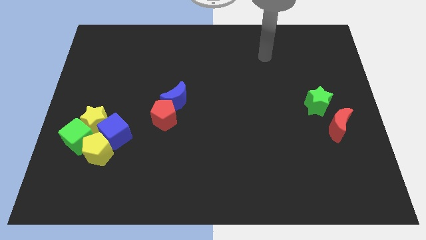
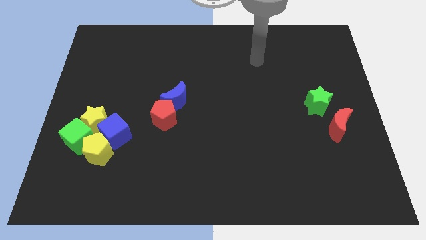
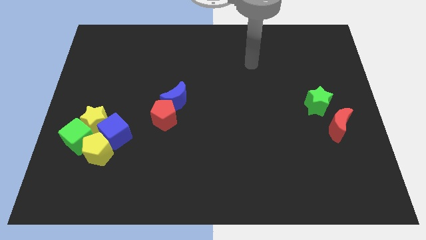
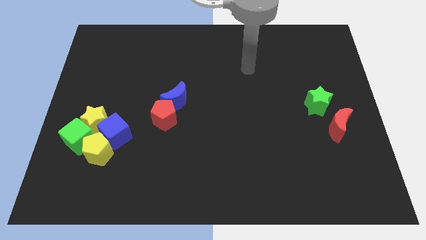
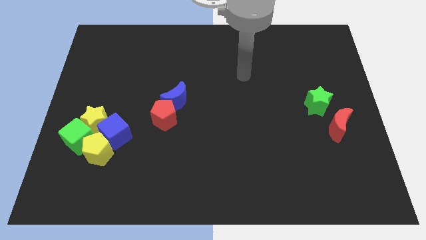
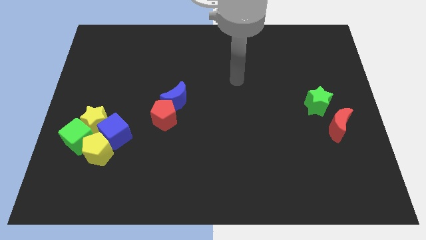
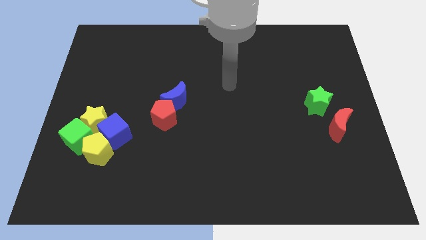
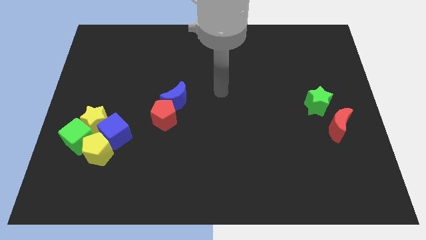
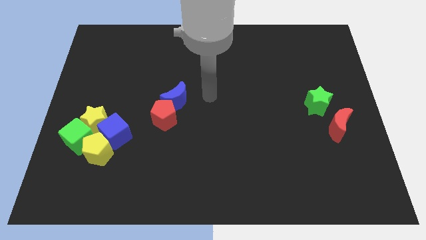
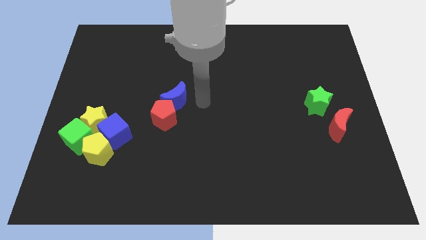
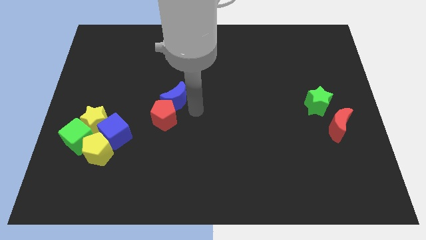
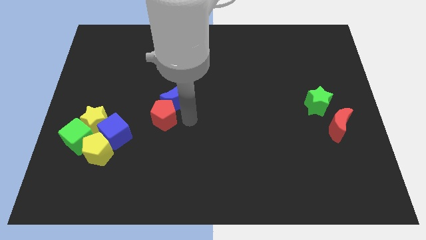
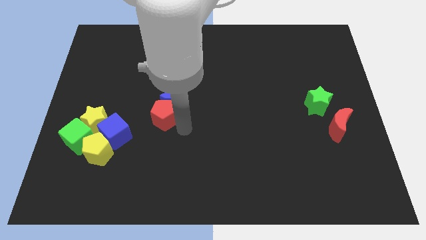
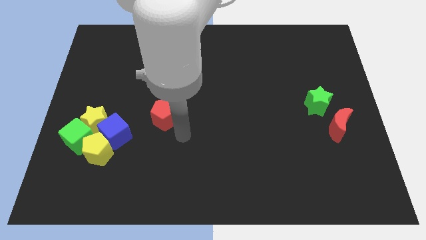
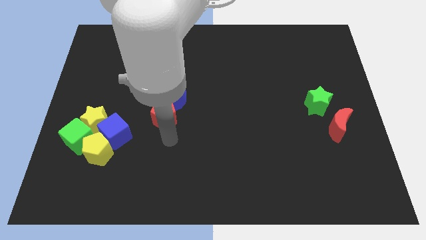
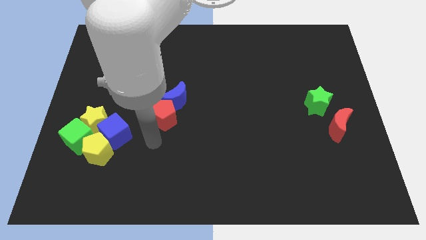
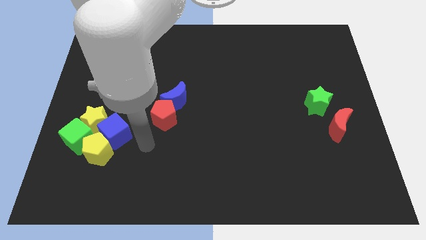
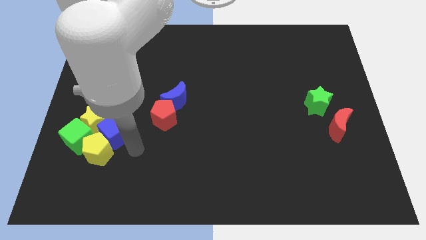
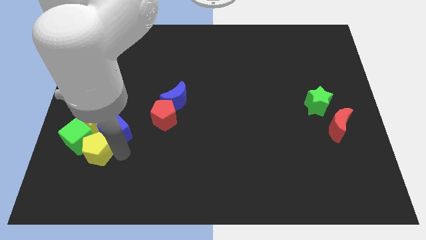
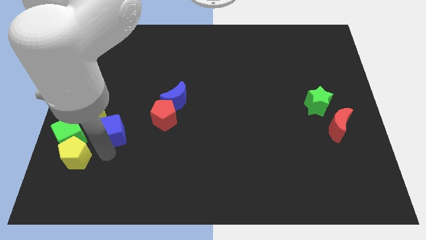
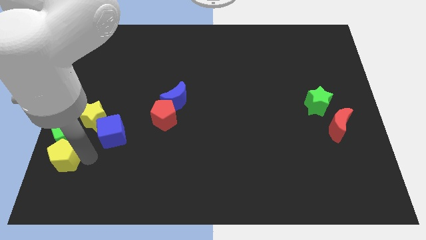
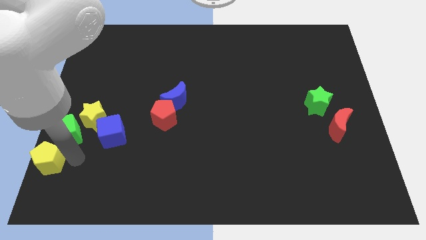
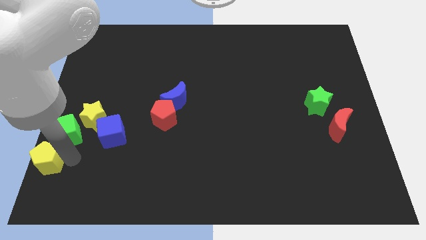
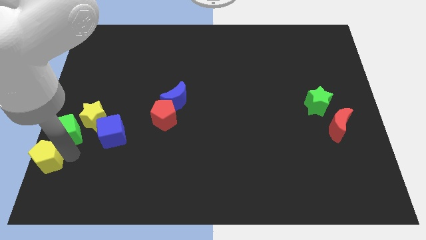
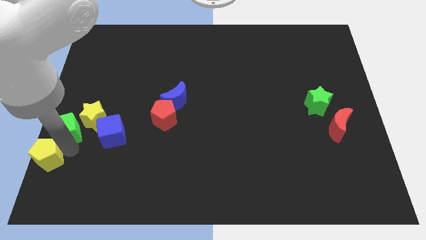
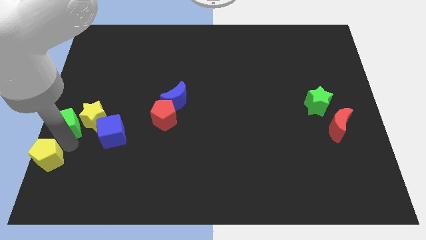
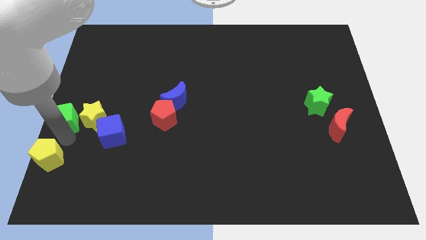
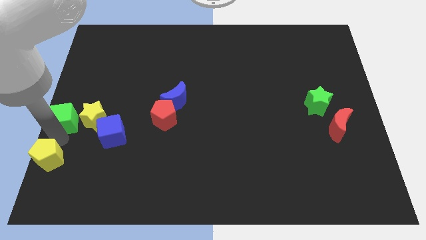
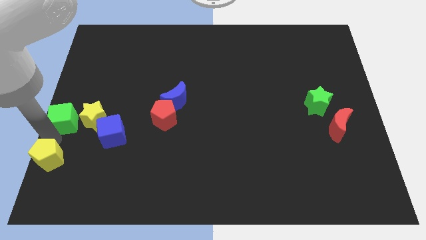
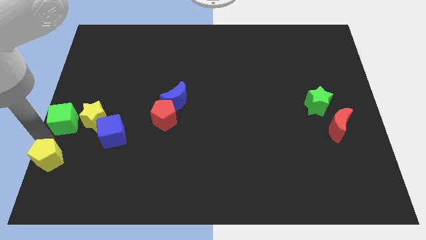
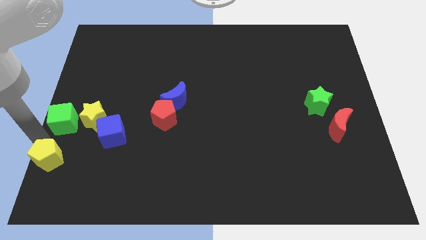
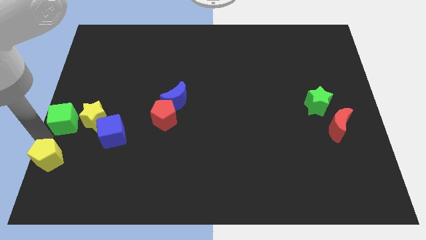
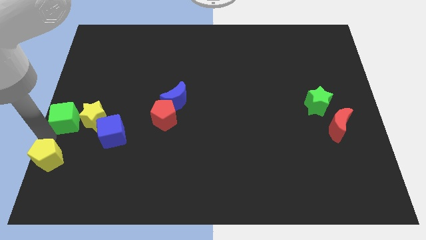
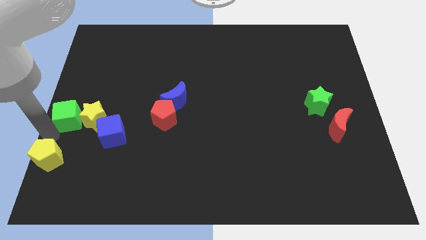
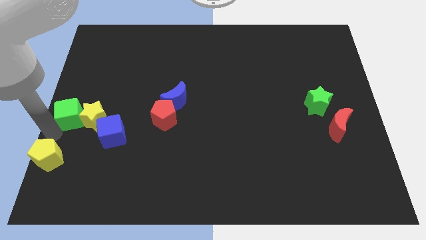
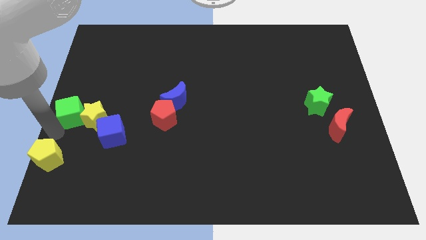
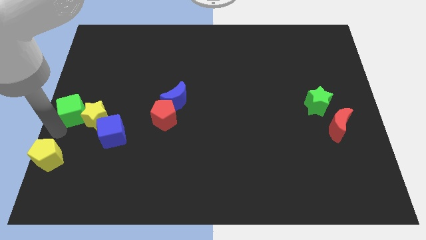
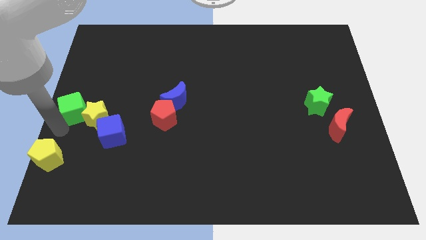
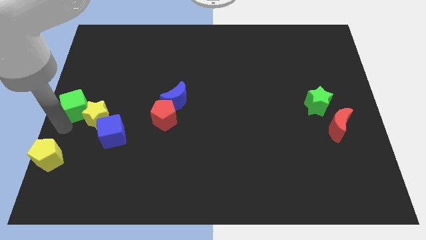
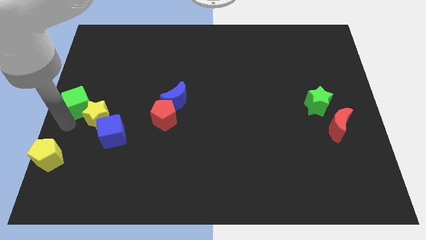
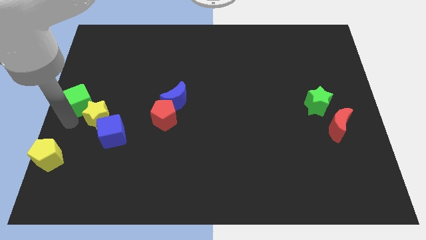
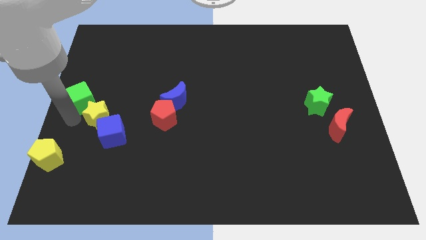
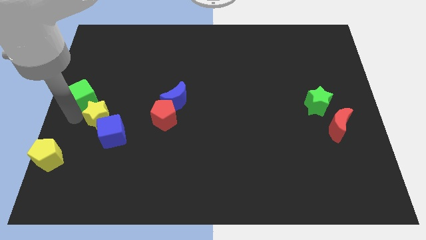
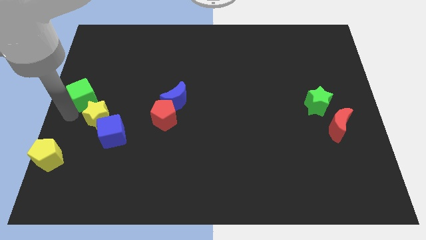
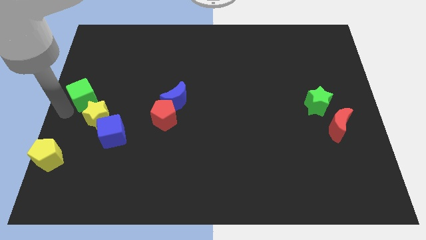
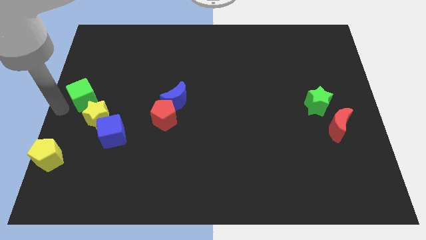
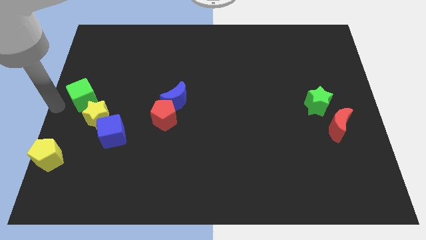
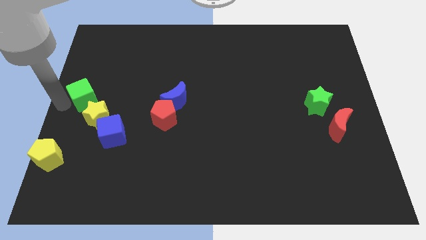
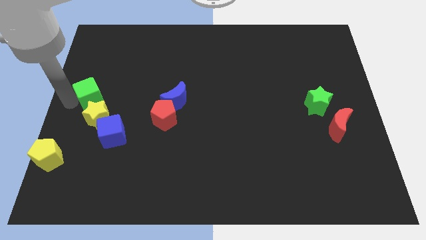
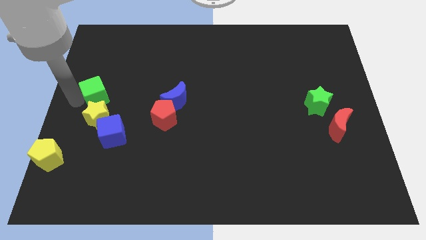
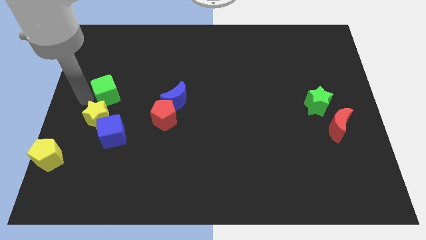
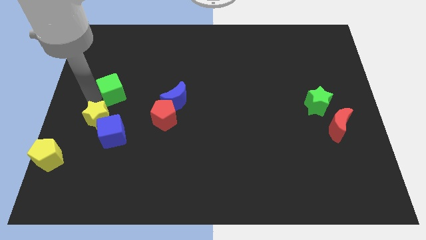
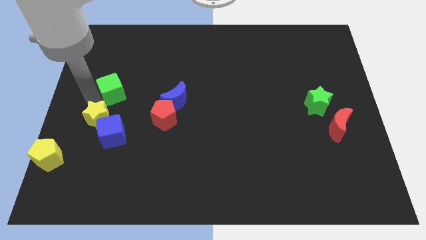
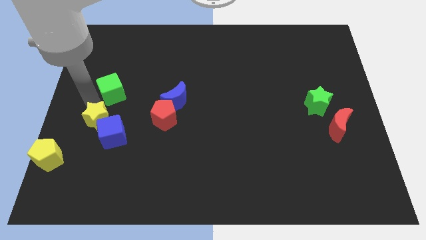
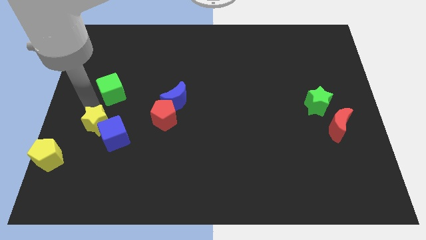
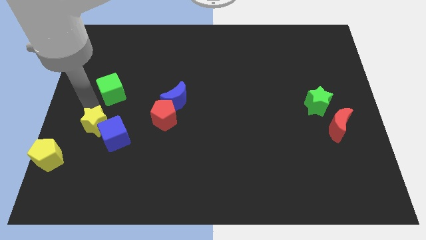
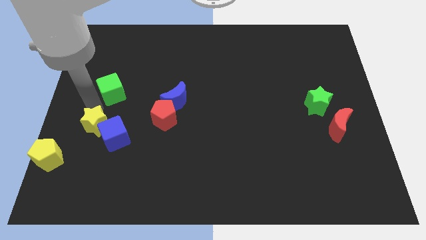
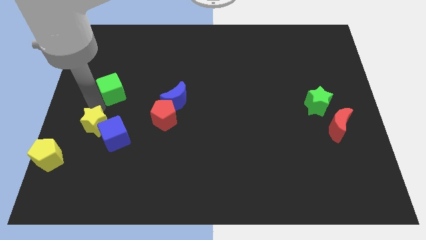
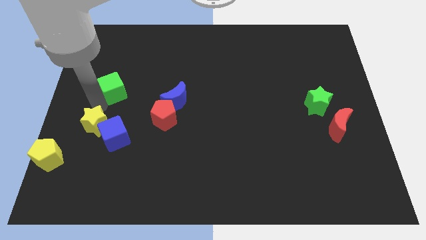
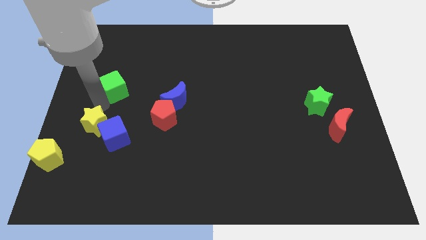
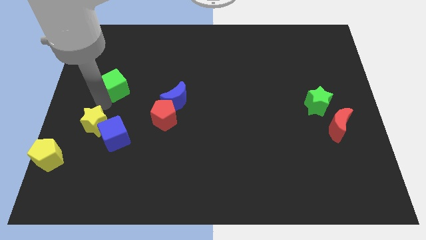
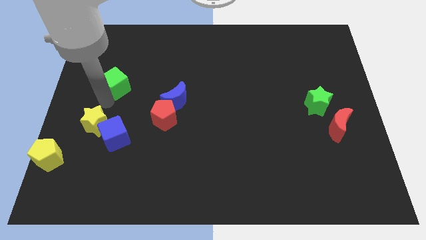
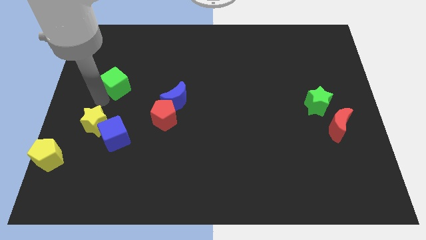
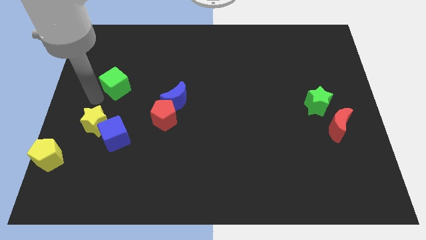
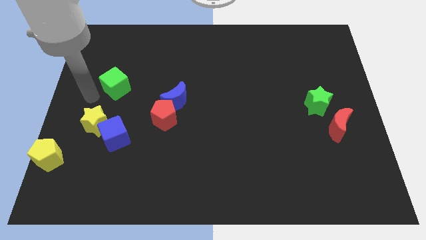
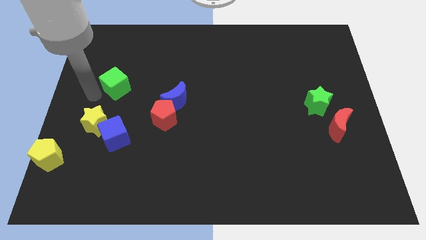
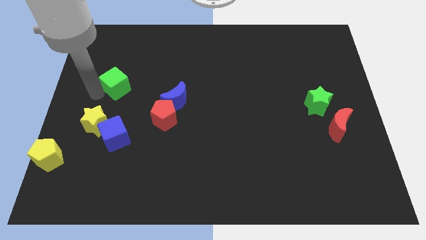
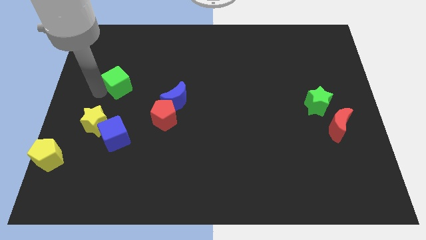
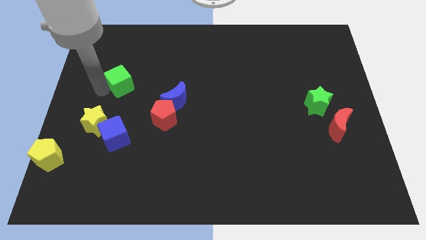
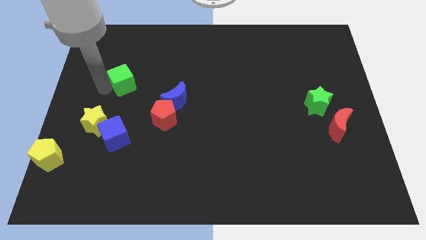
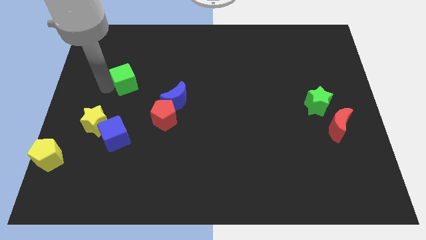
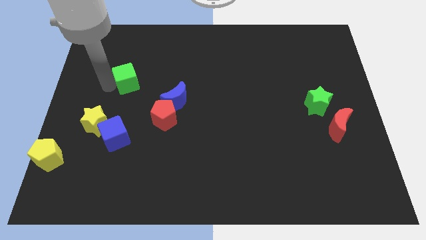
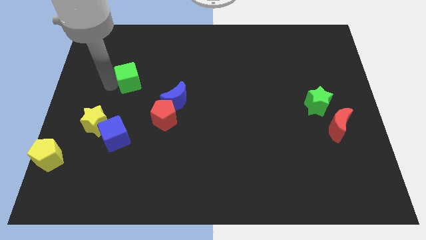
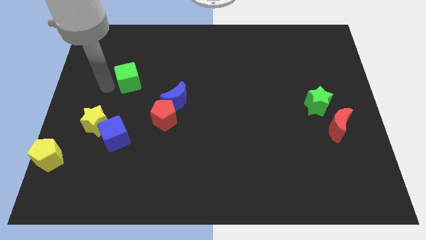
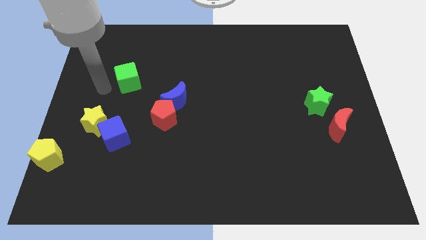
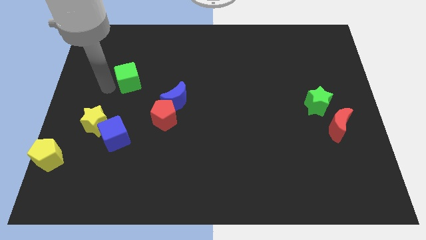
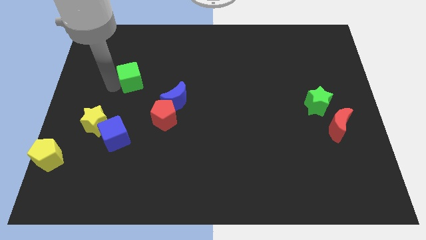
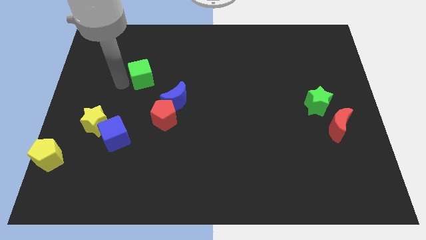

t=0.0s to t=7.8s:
move the green cube upwards and right

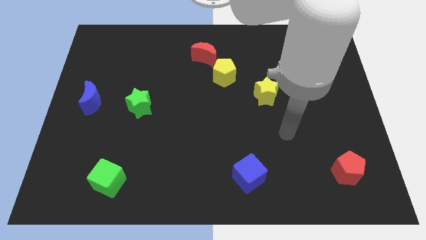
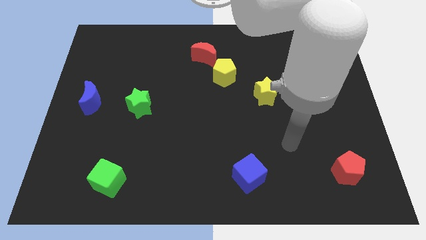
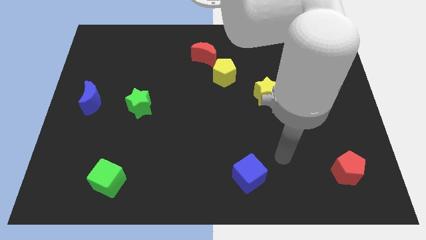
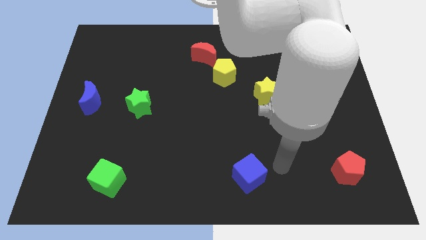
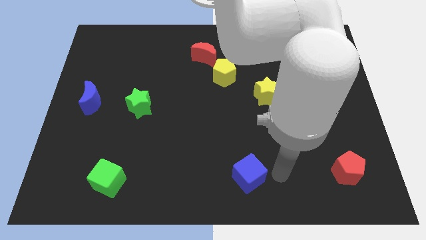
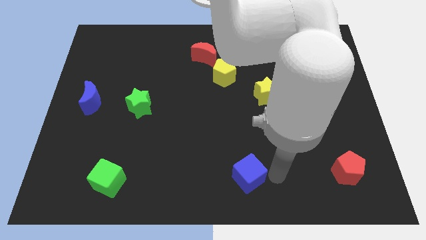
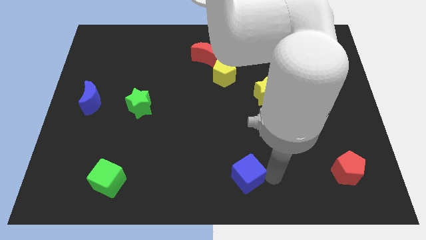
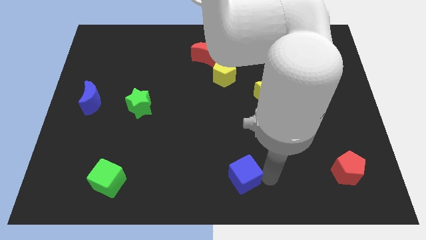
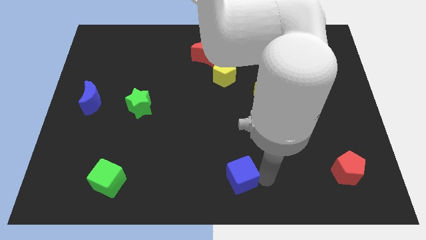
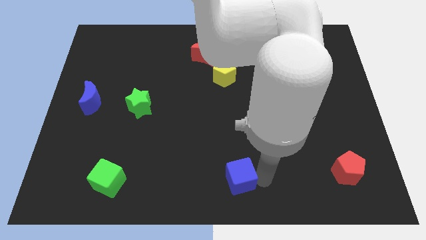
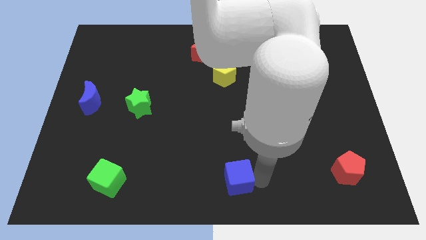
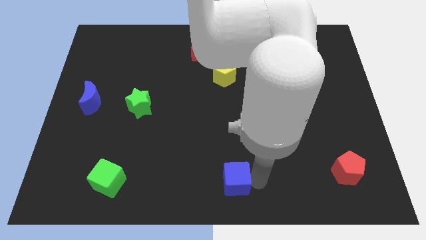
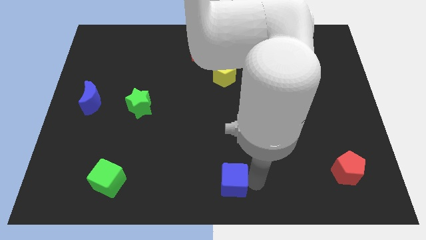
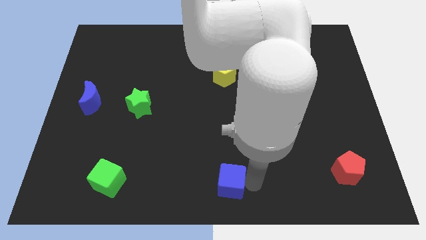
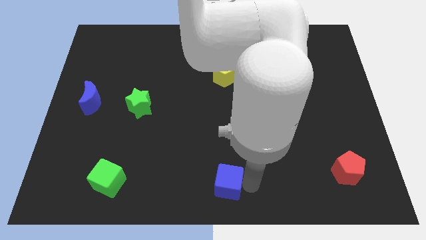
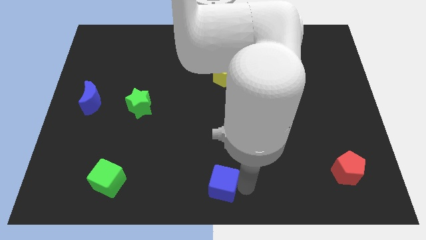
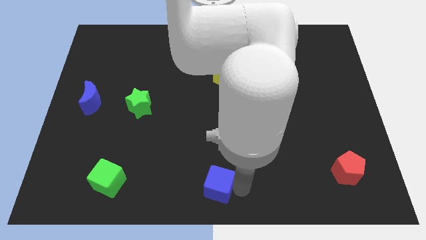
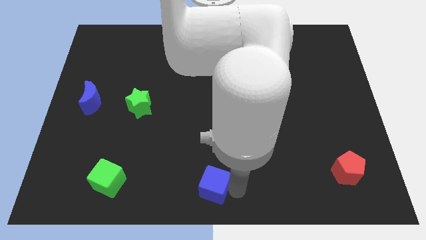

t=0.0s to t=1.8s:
slightly slide the blue cube left
